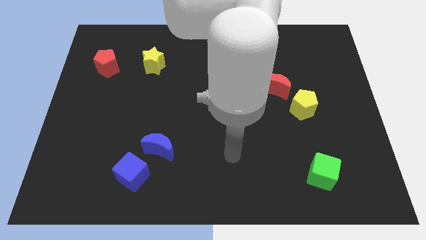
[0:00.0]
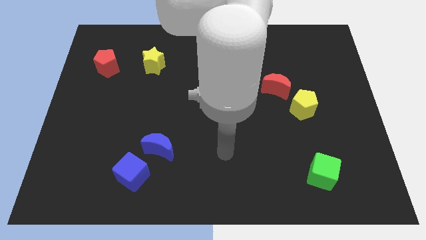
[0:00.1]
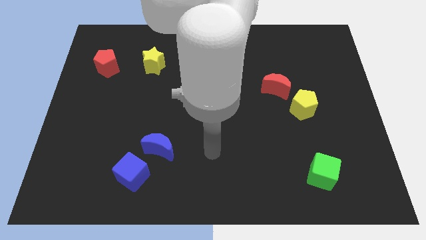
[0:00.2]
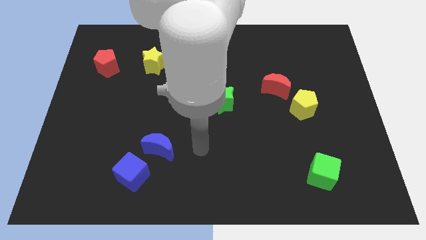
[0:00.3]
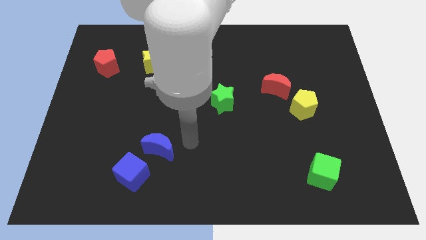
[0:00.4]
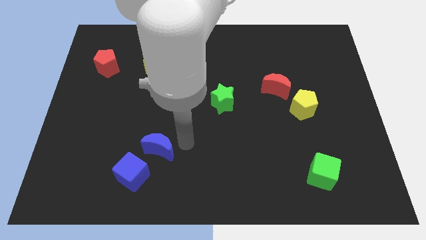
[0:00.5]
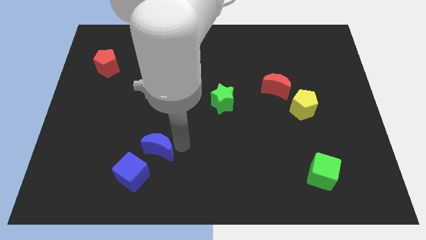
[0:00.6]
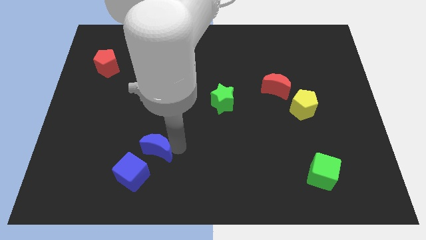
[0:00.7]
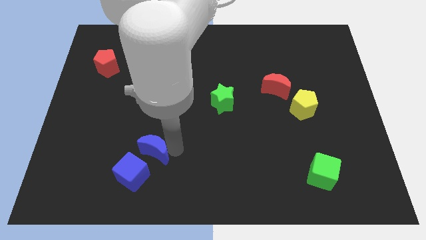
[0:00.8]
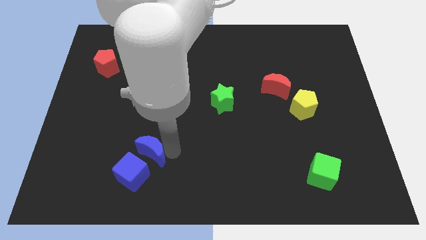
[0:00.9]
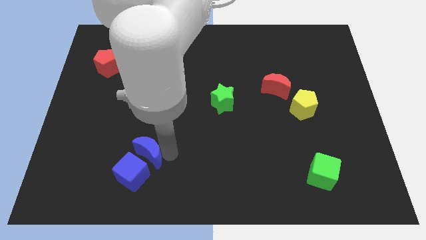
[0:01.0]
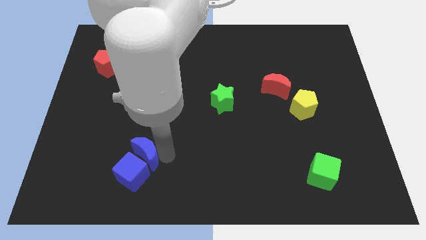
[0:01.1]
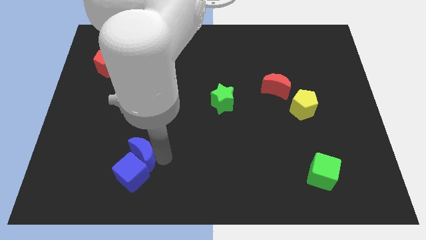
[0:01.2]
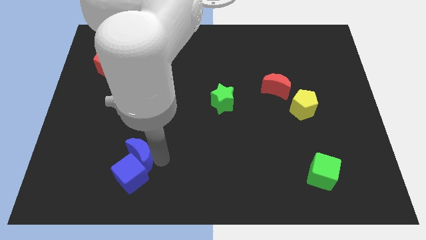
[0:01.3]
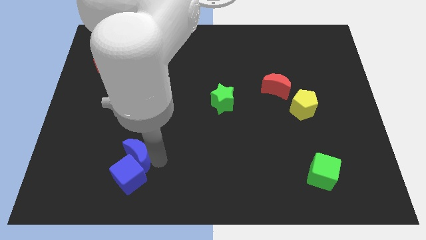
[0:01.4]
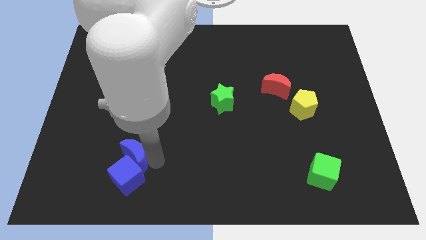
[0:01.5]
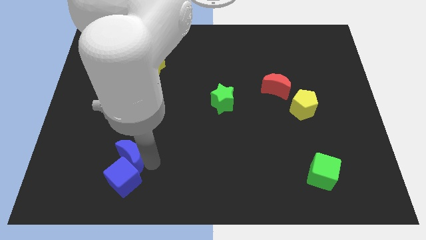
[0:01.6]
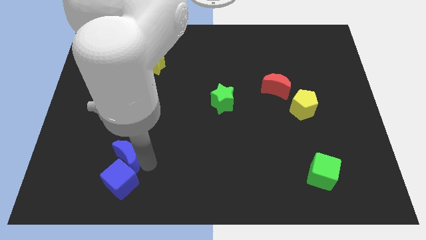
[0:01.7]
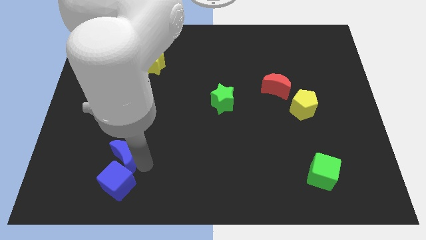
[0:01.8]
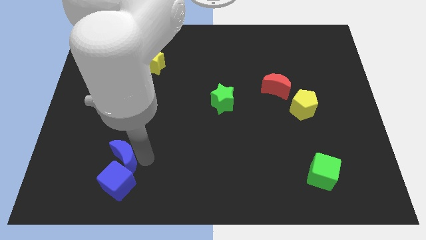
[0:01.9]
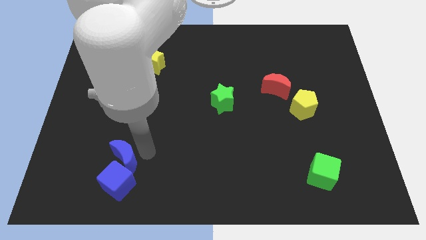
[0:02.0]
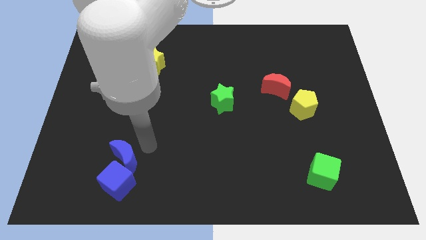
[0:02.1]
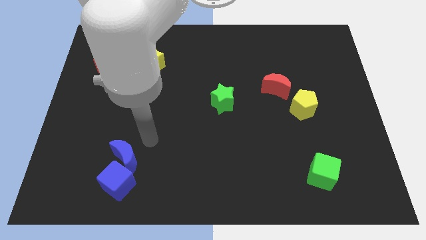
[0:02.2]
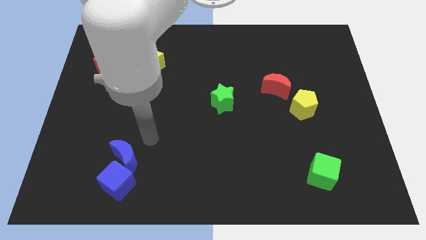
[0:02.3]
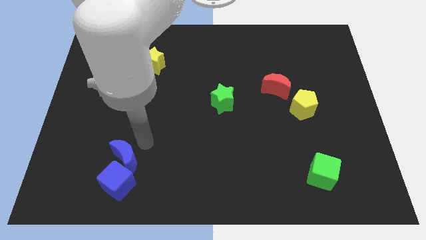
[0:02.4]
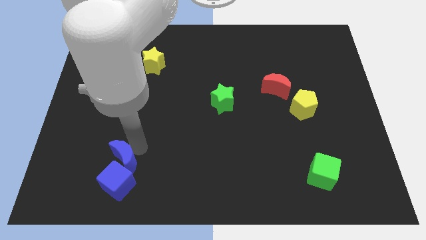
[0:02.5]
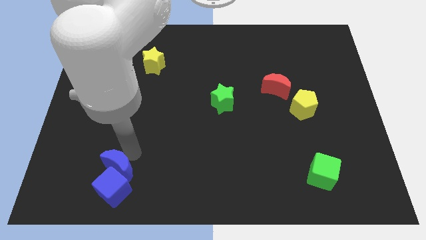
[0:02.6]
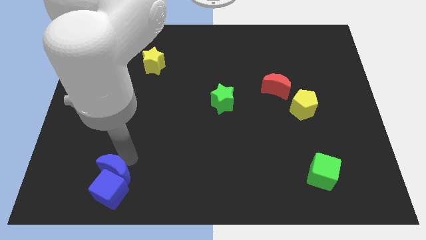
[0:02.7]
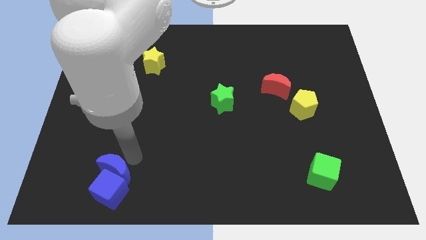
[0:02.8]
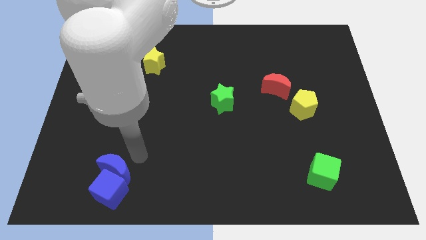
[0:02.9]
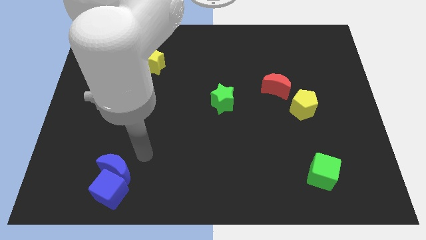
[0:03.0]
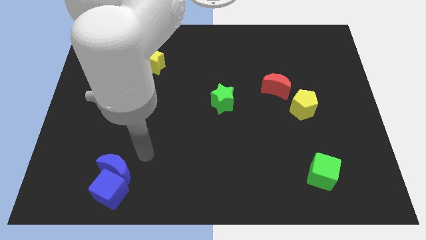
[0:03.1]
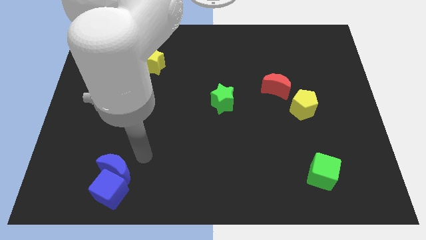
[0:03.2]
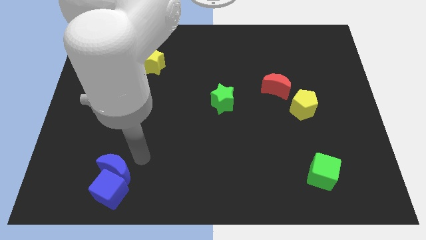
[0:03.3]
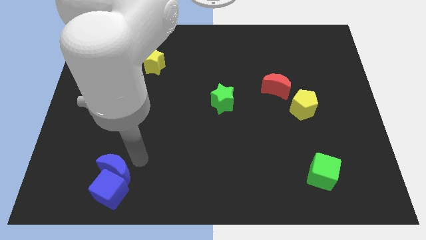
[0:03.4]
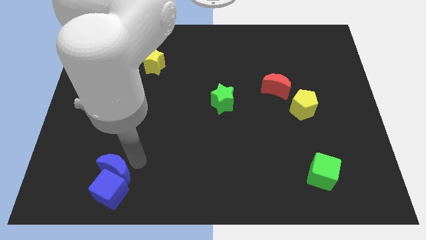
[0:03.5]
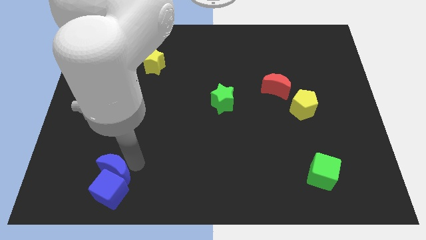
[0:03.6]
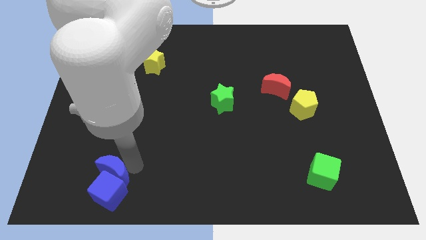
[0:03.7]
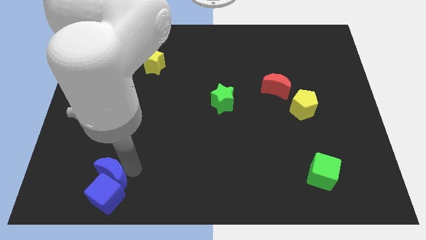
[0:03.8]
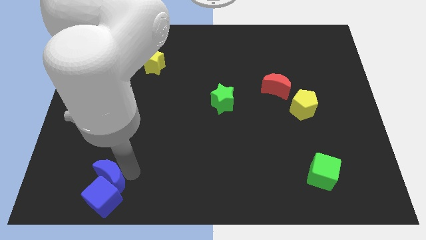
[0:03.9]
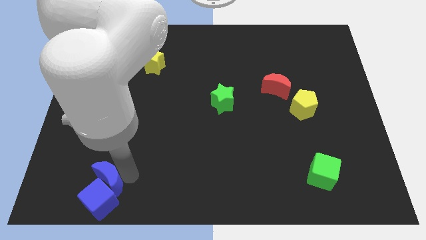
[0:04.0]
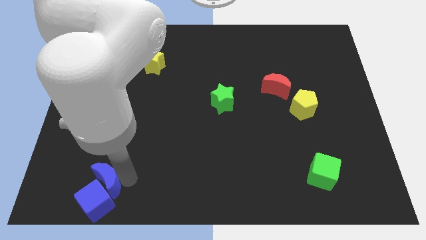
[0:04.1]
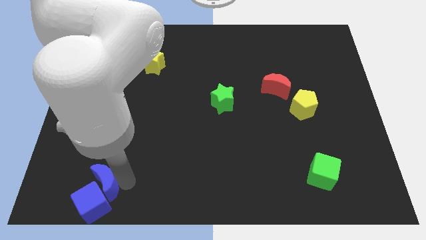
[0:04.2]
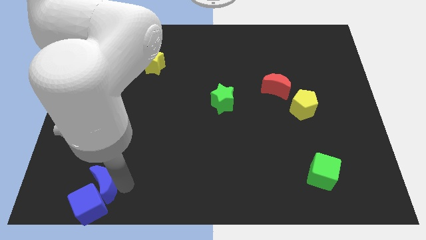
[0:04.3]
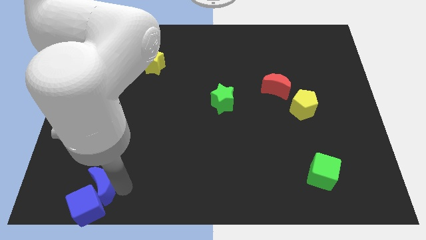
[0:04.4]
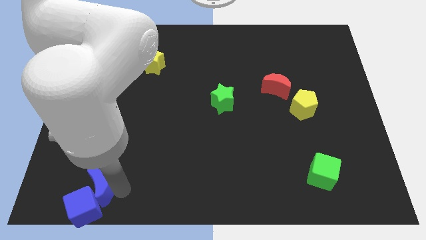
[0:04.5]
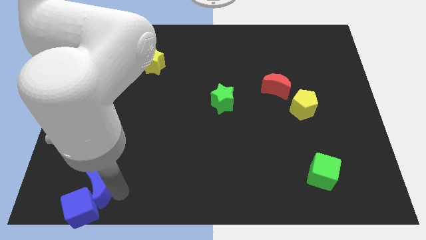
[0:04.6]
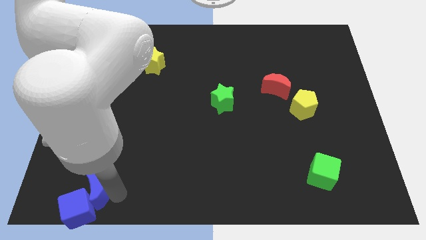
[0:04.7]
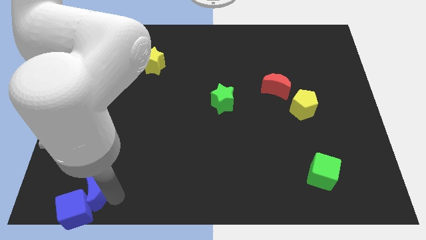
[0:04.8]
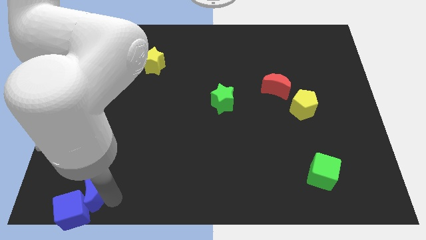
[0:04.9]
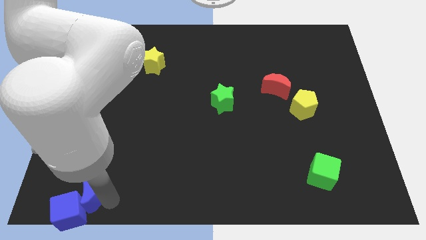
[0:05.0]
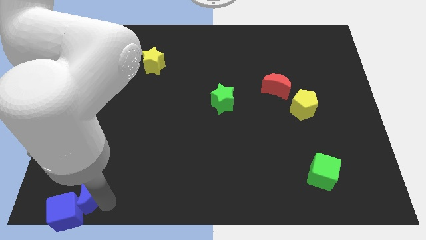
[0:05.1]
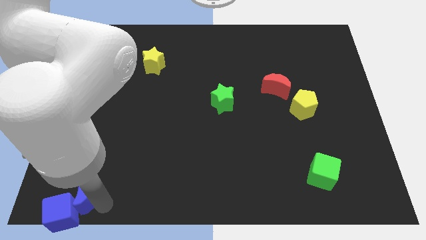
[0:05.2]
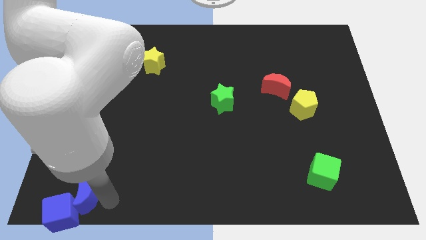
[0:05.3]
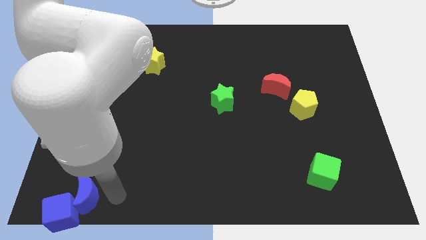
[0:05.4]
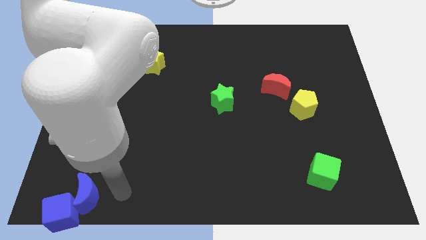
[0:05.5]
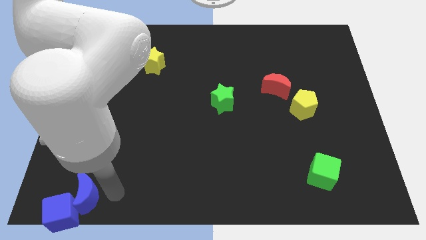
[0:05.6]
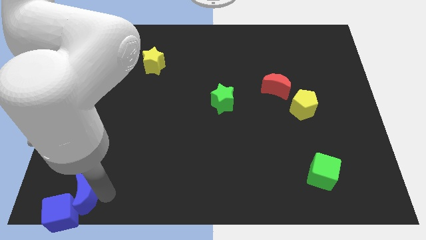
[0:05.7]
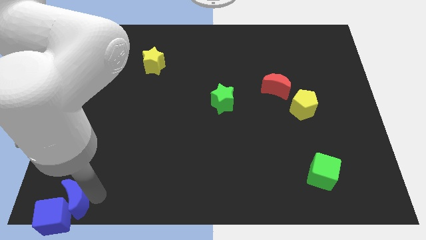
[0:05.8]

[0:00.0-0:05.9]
push the blue moon to the bottom left

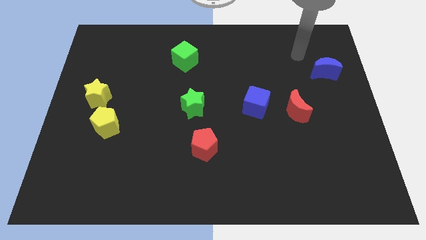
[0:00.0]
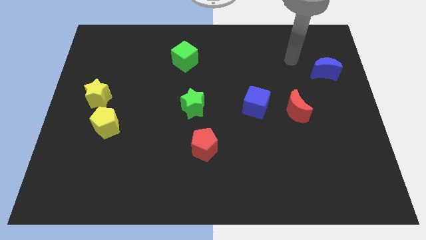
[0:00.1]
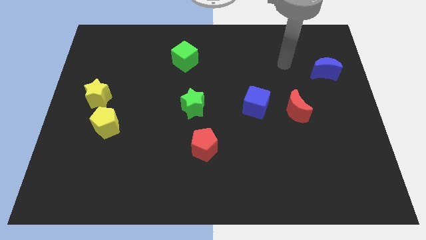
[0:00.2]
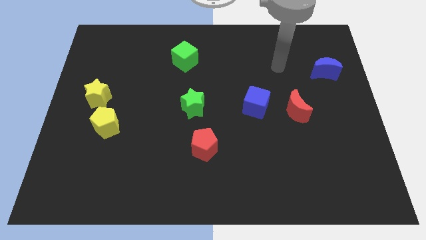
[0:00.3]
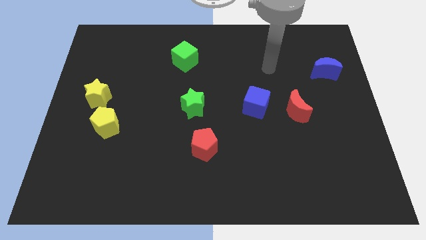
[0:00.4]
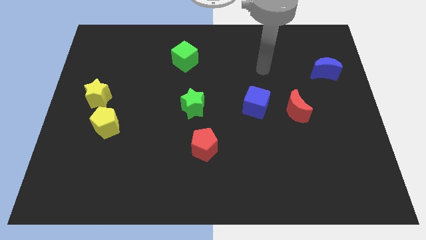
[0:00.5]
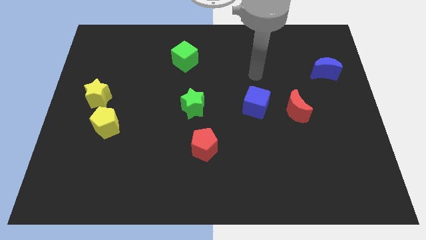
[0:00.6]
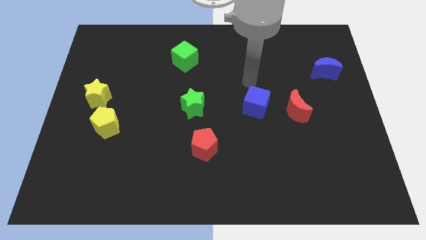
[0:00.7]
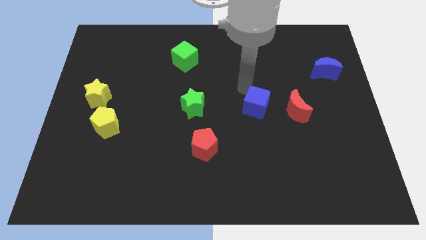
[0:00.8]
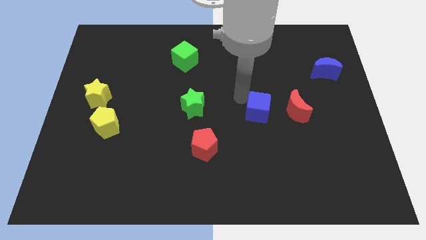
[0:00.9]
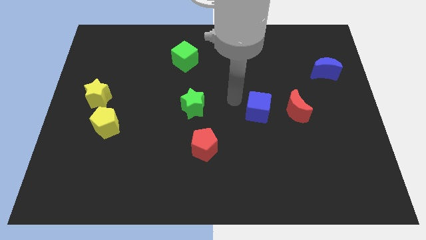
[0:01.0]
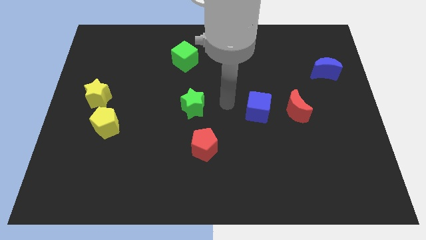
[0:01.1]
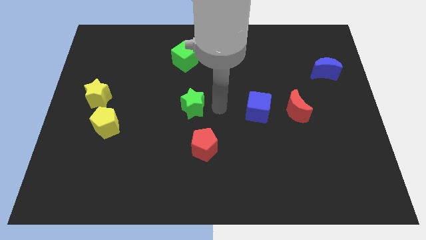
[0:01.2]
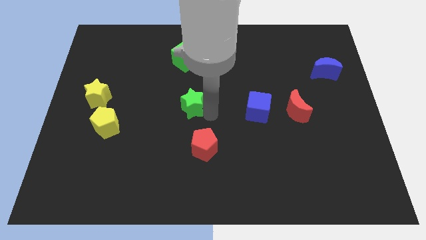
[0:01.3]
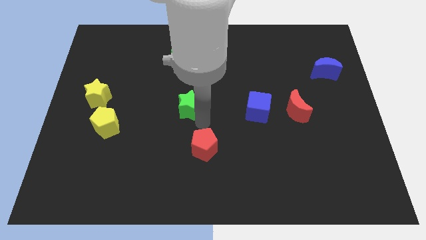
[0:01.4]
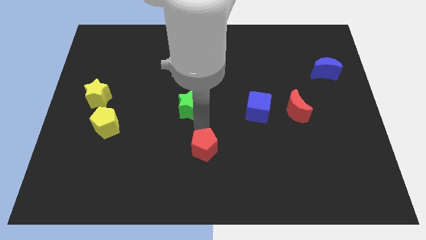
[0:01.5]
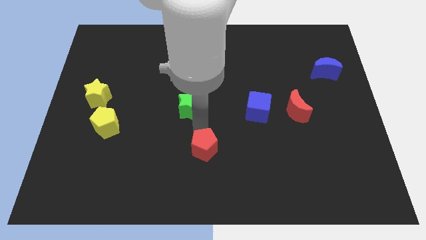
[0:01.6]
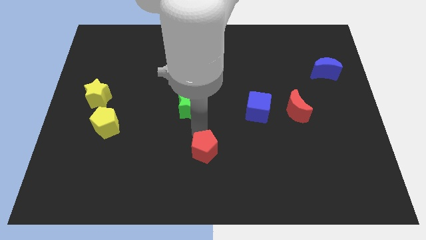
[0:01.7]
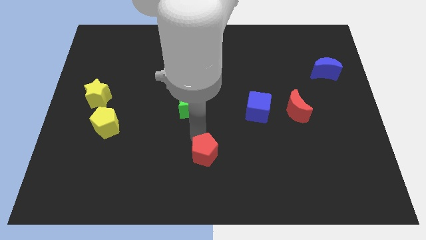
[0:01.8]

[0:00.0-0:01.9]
push the red pentagon to the bottom side
